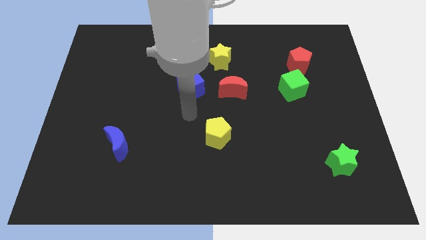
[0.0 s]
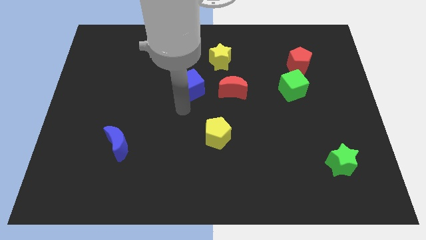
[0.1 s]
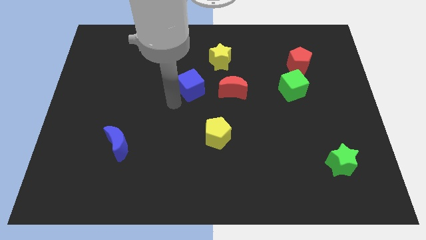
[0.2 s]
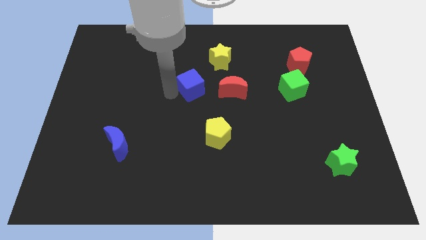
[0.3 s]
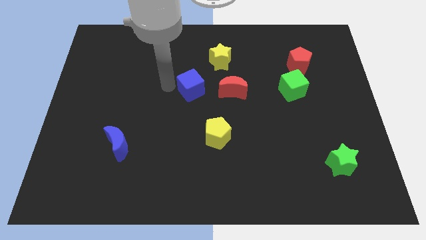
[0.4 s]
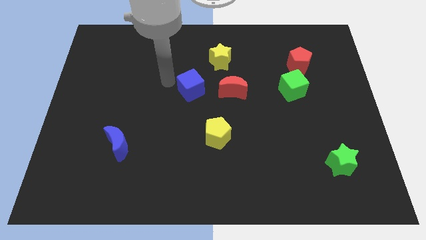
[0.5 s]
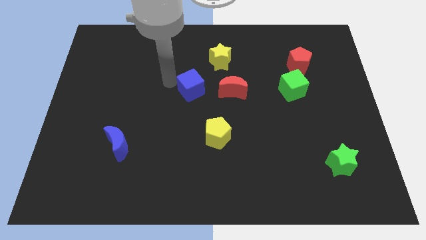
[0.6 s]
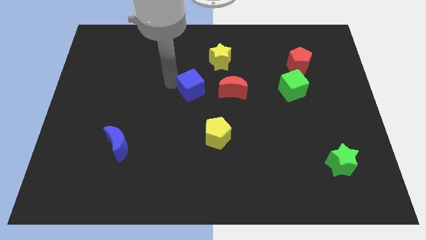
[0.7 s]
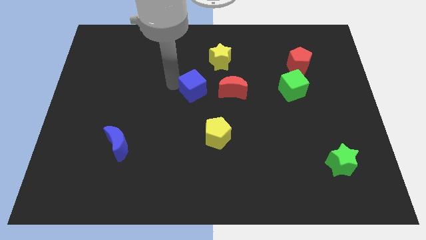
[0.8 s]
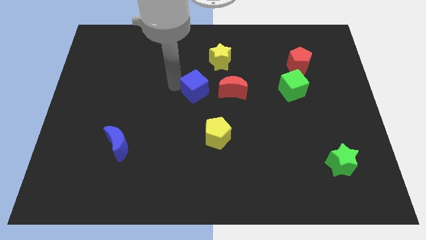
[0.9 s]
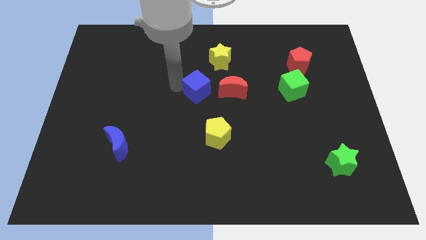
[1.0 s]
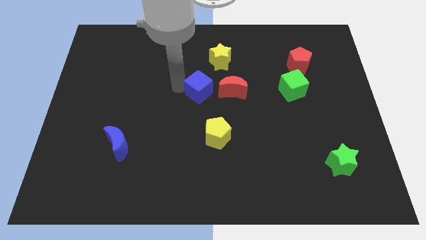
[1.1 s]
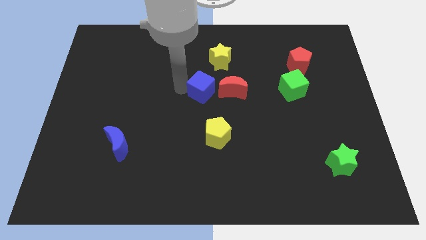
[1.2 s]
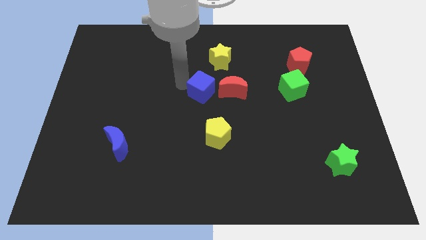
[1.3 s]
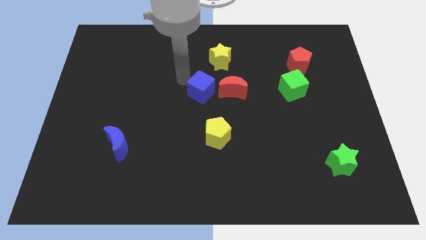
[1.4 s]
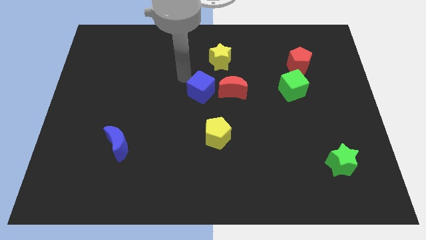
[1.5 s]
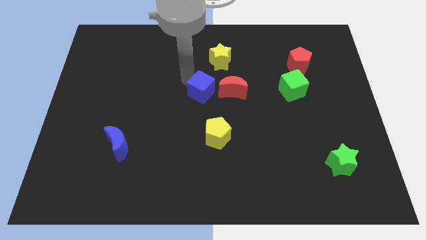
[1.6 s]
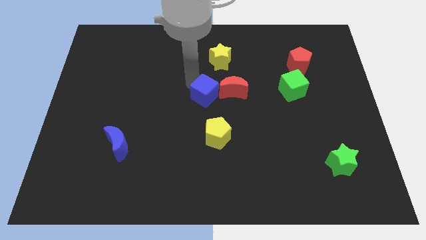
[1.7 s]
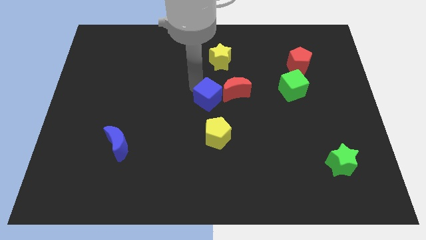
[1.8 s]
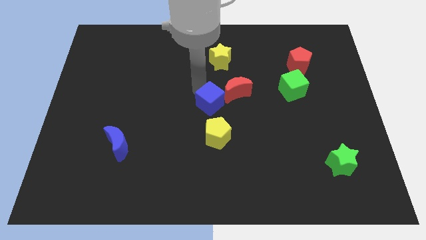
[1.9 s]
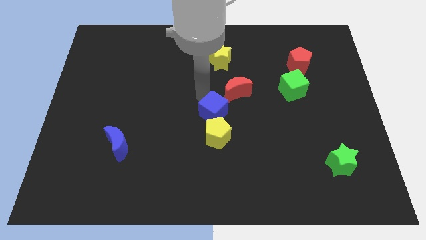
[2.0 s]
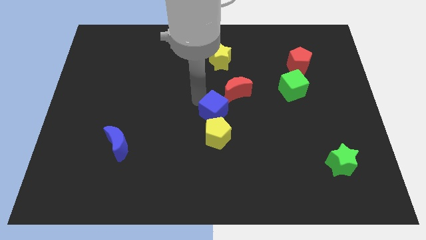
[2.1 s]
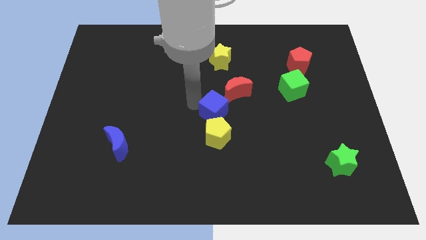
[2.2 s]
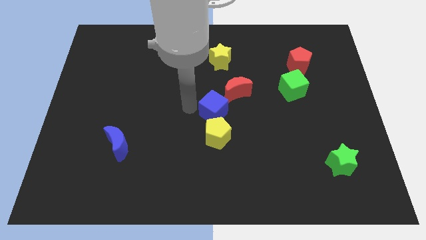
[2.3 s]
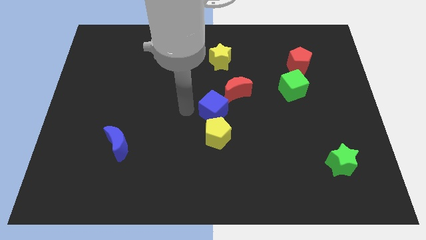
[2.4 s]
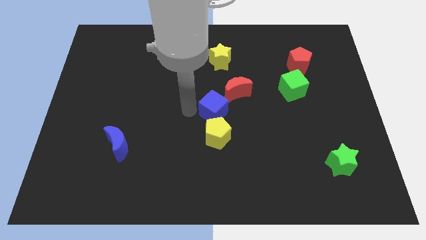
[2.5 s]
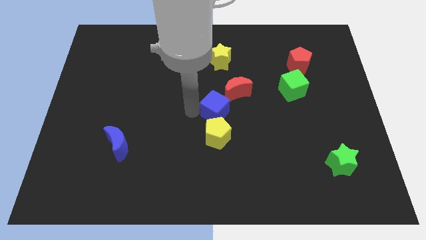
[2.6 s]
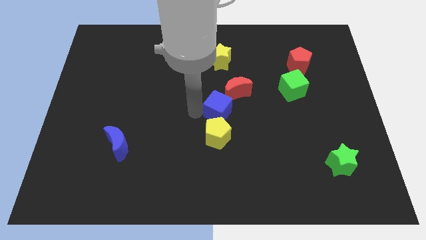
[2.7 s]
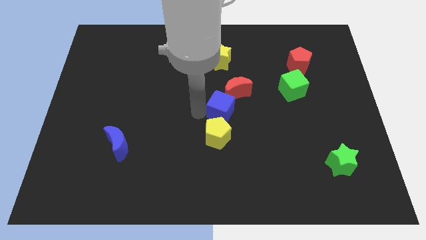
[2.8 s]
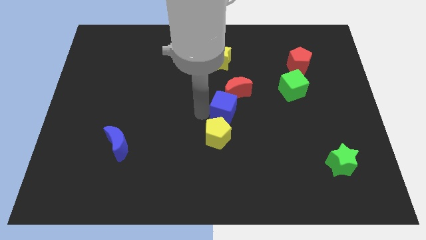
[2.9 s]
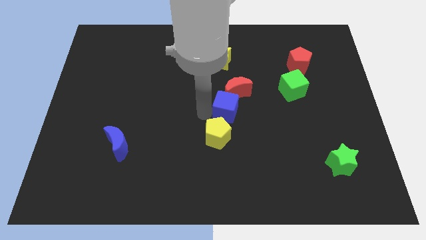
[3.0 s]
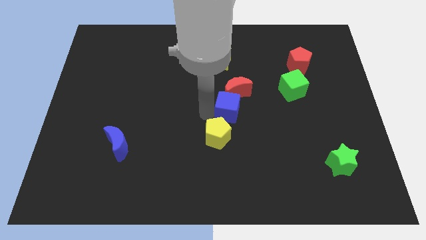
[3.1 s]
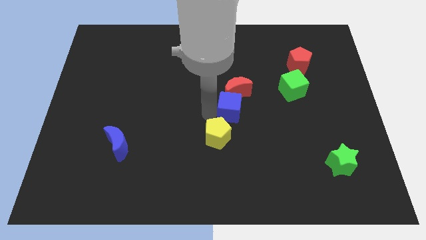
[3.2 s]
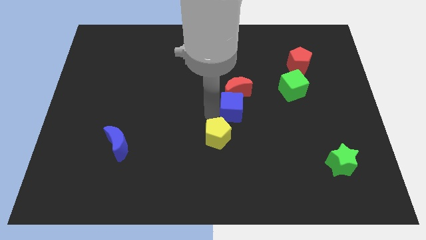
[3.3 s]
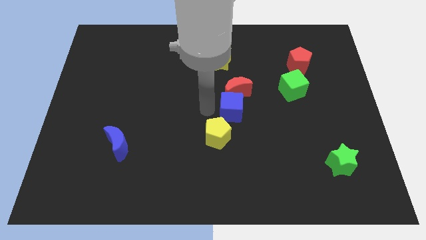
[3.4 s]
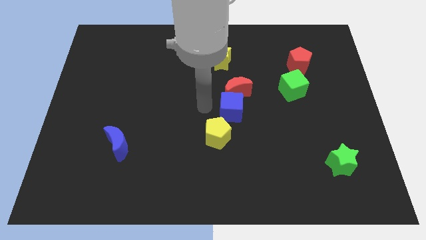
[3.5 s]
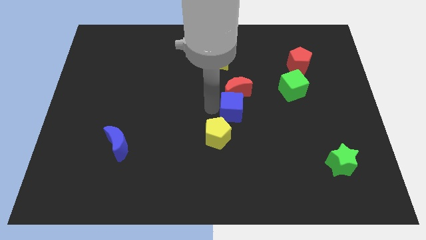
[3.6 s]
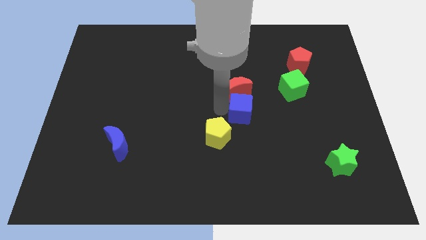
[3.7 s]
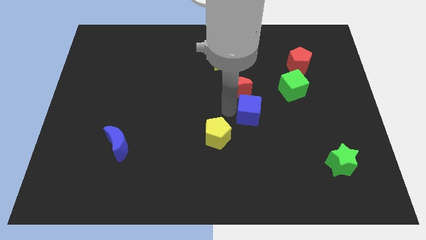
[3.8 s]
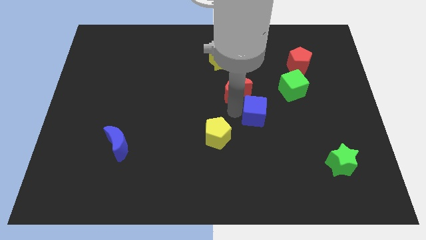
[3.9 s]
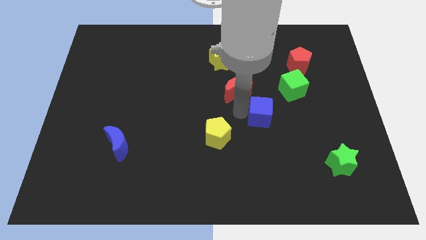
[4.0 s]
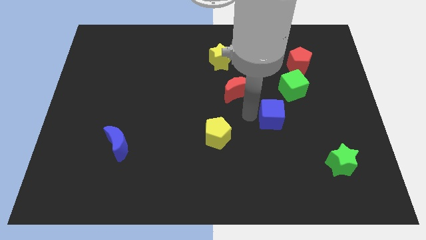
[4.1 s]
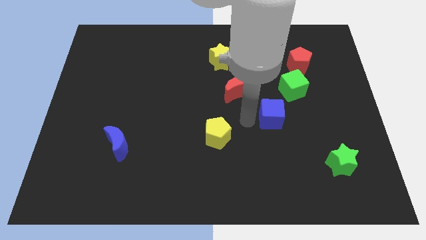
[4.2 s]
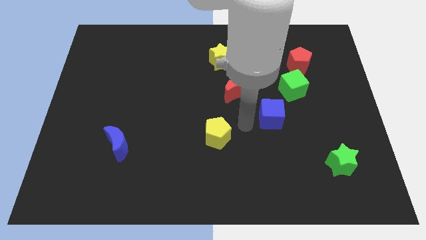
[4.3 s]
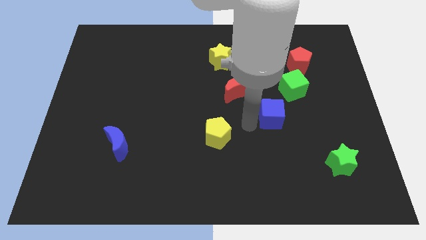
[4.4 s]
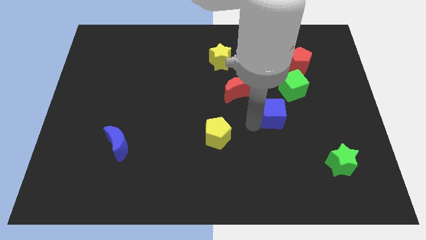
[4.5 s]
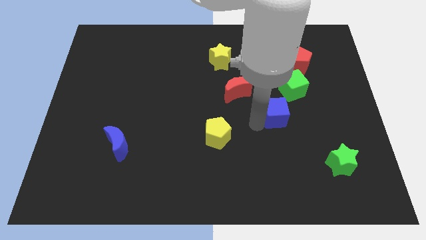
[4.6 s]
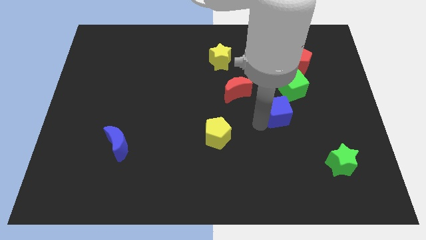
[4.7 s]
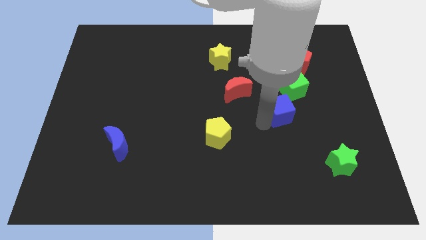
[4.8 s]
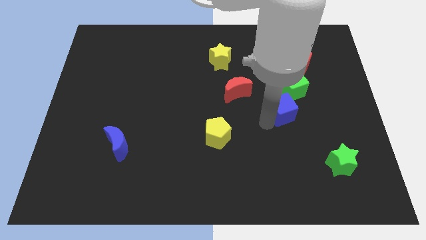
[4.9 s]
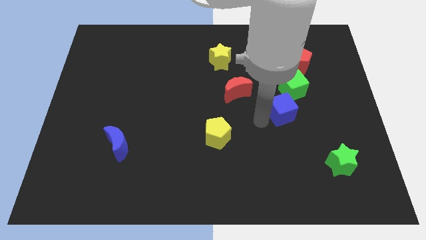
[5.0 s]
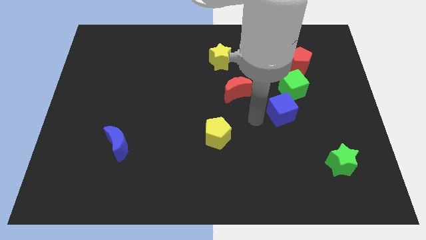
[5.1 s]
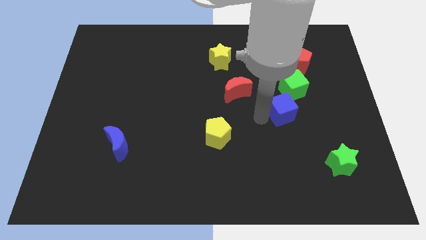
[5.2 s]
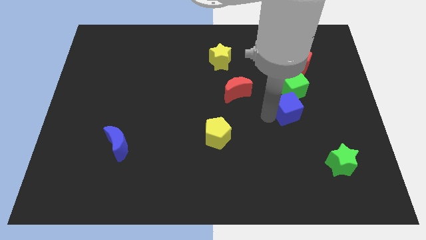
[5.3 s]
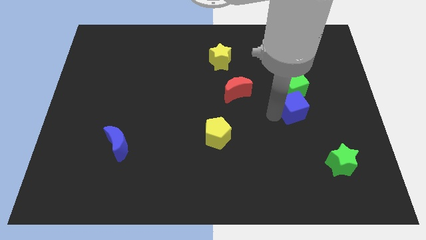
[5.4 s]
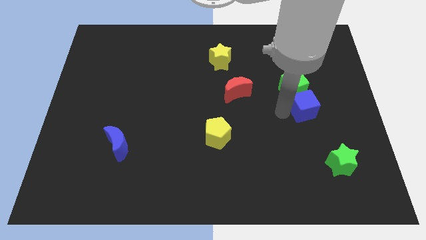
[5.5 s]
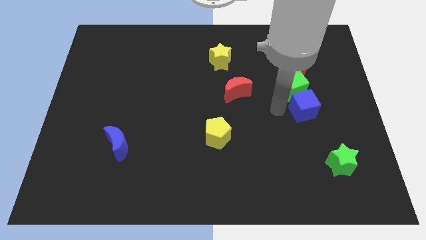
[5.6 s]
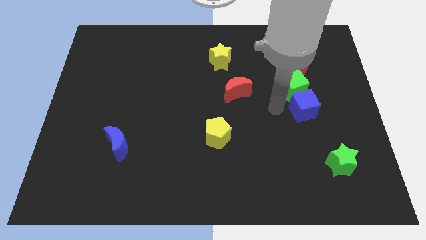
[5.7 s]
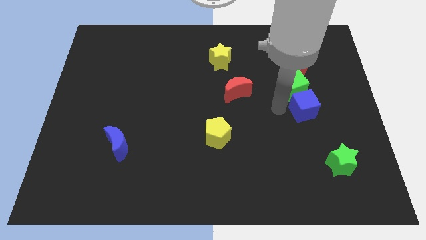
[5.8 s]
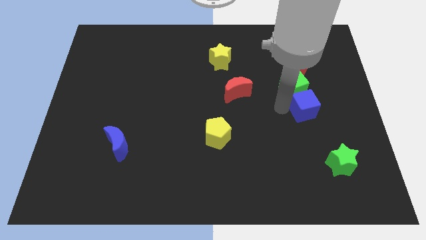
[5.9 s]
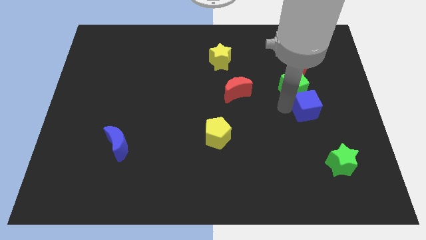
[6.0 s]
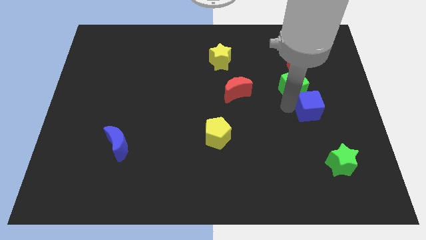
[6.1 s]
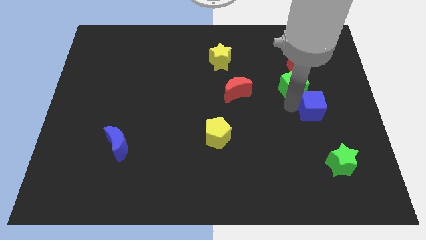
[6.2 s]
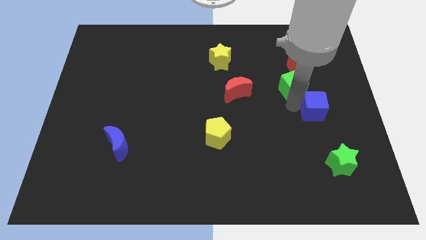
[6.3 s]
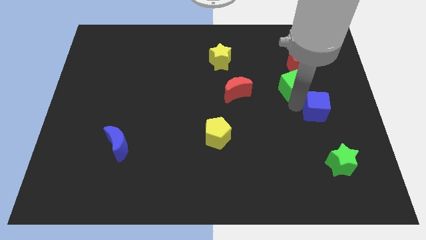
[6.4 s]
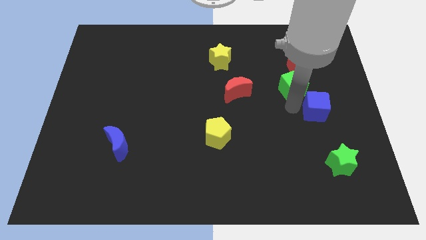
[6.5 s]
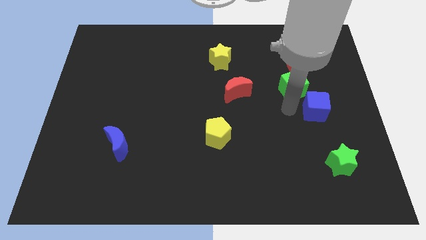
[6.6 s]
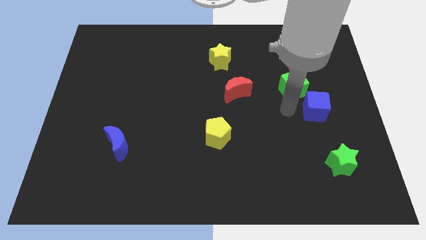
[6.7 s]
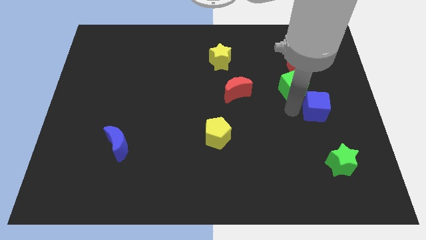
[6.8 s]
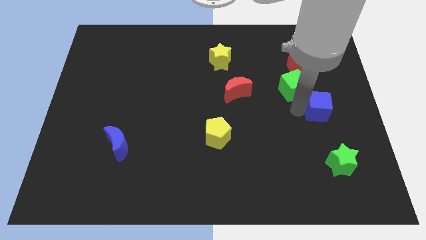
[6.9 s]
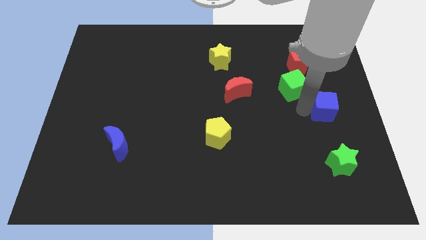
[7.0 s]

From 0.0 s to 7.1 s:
push the blue cube to the center right
